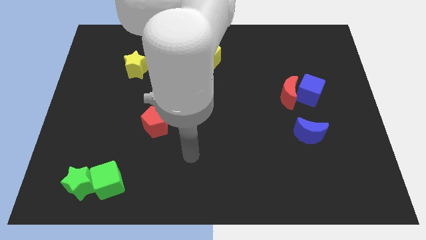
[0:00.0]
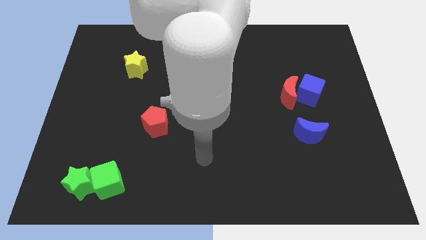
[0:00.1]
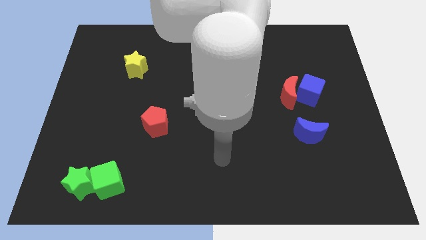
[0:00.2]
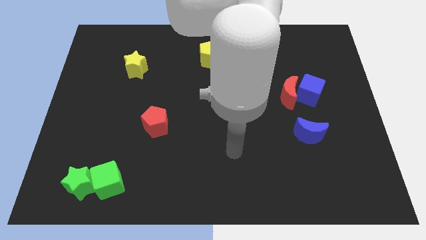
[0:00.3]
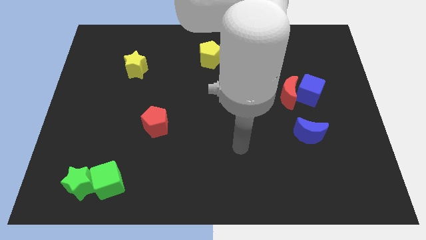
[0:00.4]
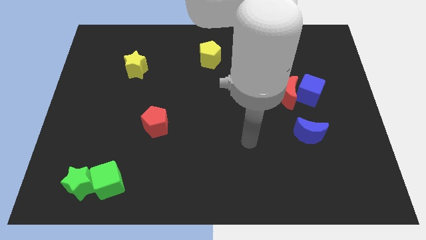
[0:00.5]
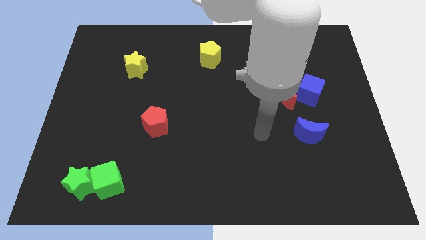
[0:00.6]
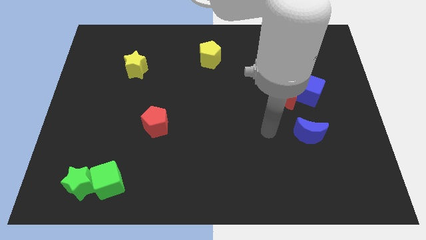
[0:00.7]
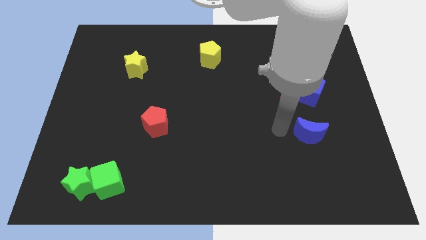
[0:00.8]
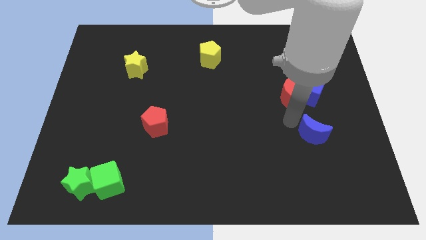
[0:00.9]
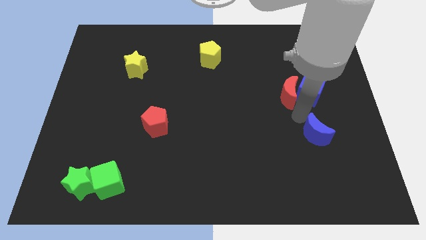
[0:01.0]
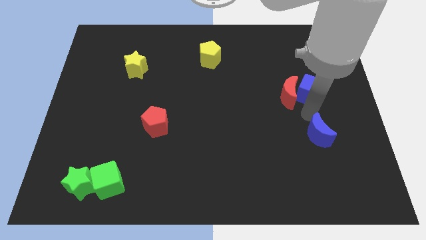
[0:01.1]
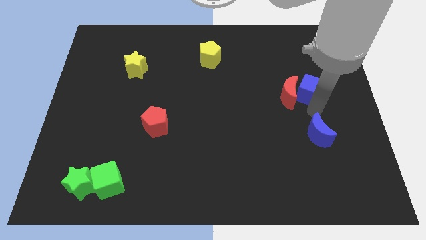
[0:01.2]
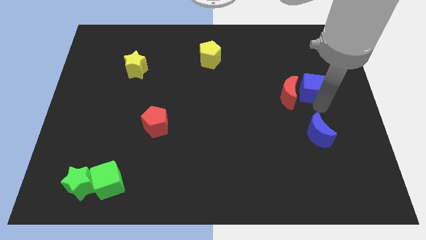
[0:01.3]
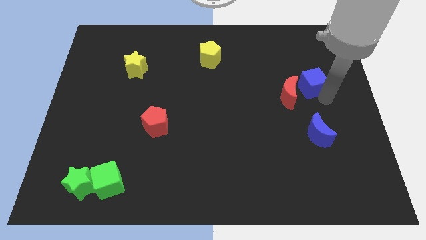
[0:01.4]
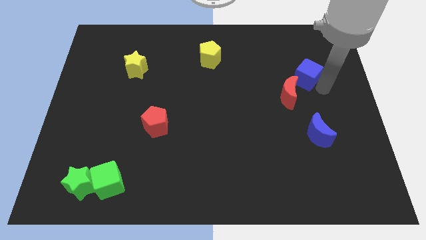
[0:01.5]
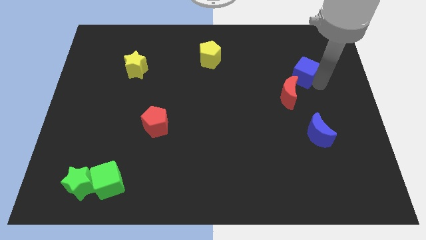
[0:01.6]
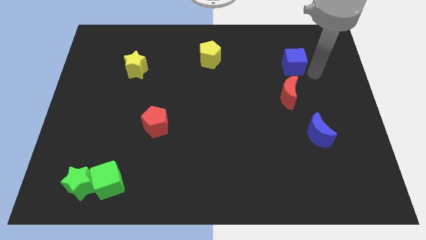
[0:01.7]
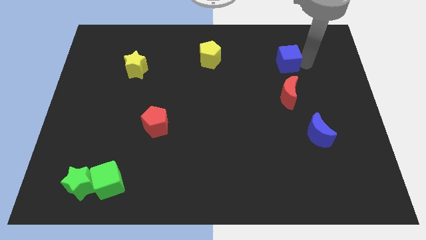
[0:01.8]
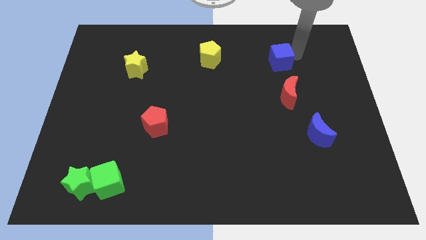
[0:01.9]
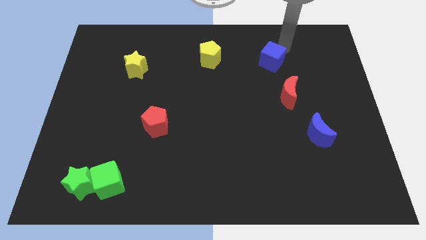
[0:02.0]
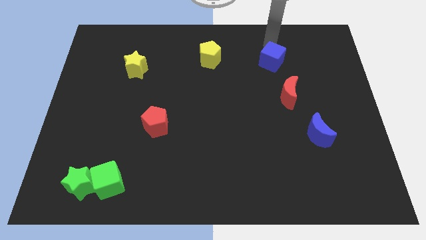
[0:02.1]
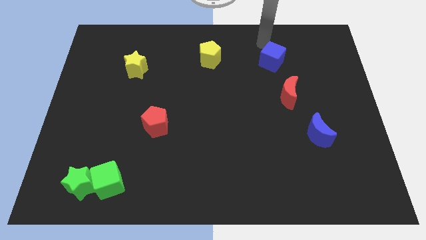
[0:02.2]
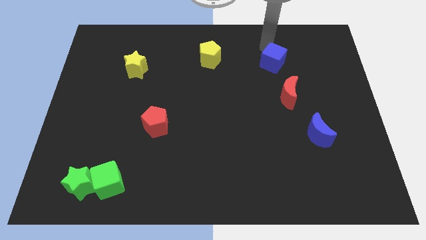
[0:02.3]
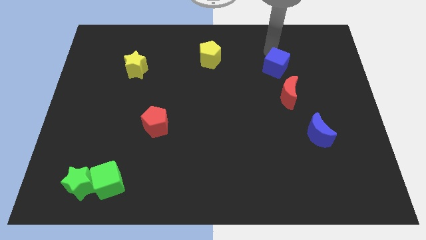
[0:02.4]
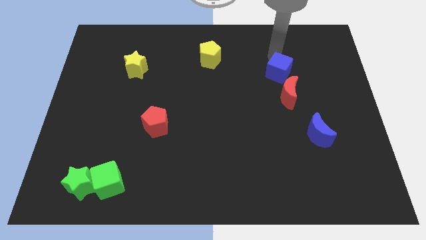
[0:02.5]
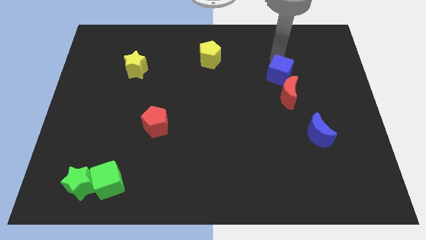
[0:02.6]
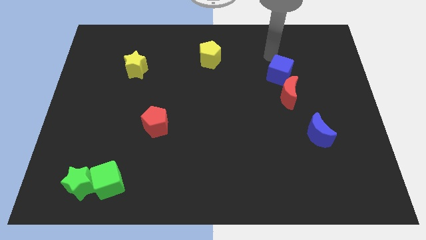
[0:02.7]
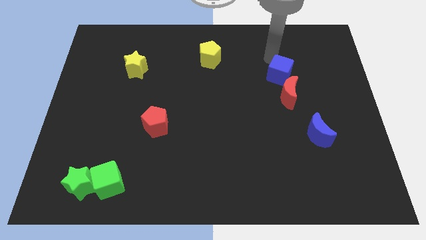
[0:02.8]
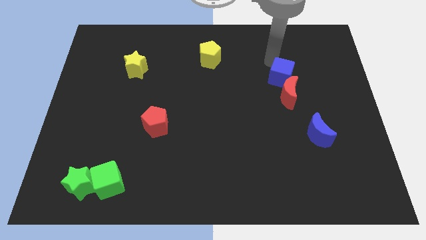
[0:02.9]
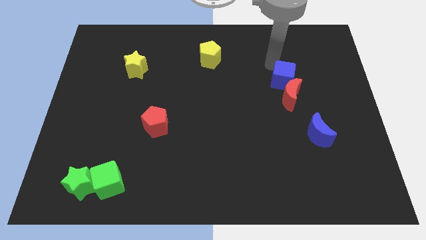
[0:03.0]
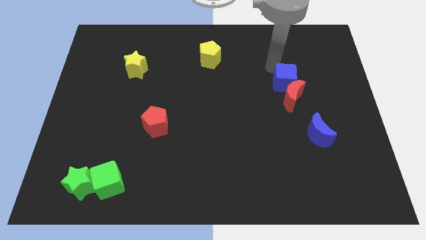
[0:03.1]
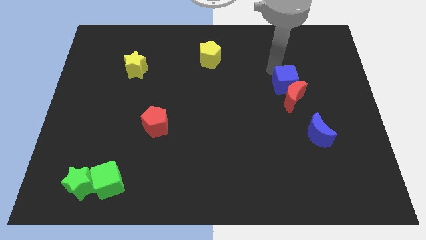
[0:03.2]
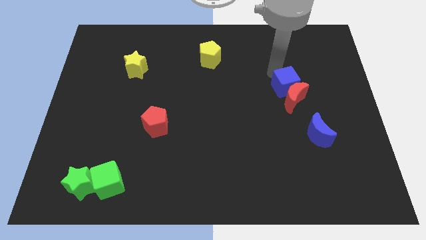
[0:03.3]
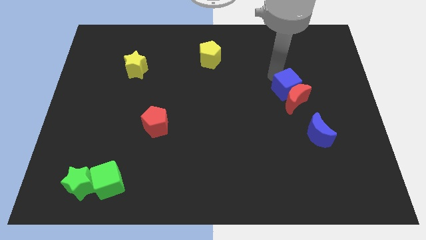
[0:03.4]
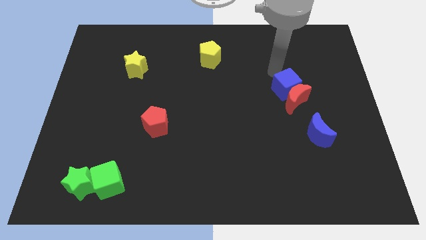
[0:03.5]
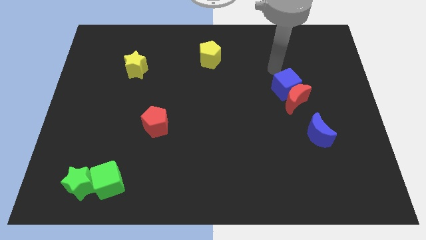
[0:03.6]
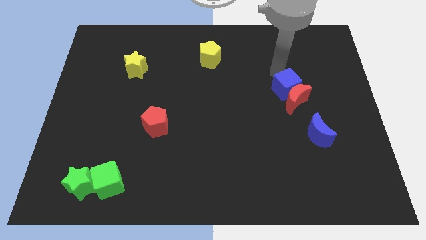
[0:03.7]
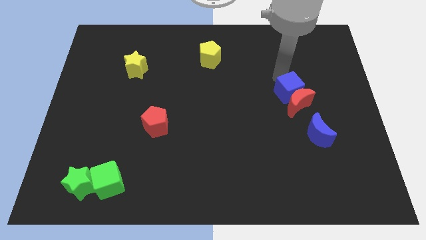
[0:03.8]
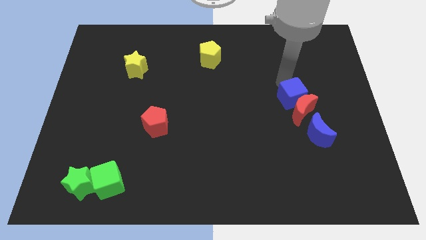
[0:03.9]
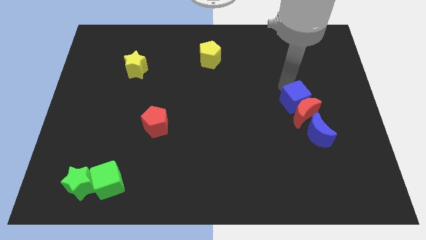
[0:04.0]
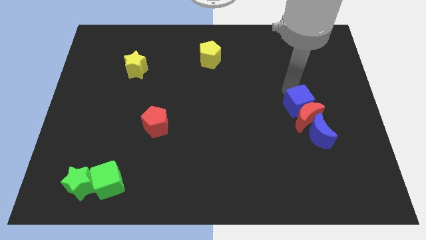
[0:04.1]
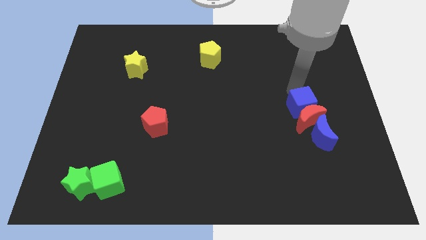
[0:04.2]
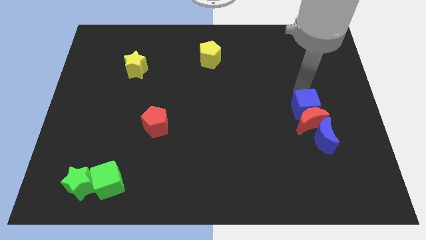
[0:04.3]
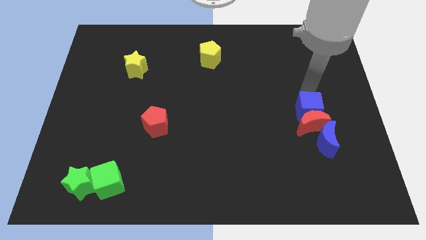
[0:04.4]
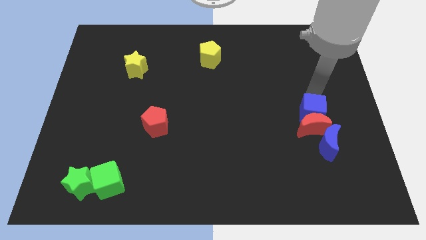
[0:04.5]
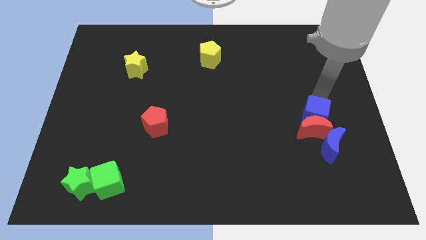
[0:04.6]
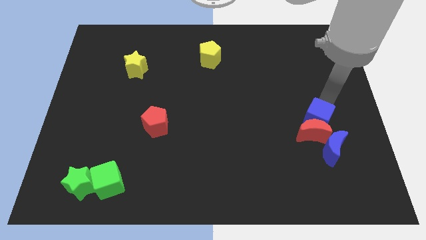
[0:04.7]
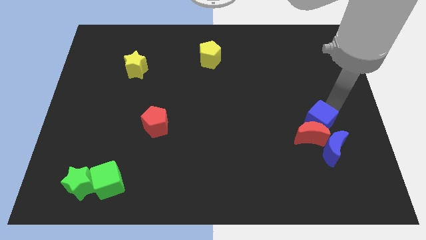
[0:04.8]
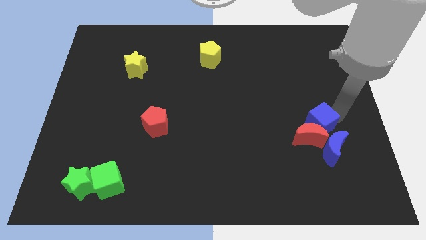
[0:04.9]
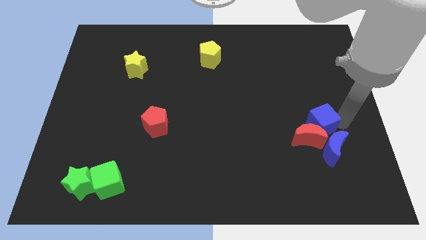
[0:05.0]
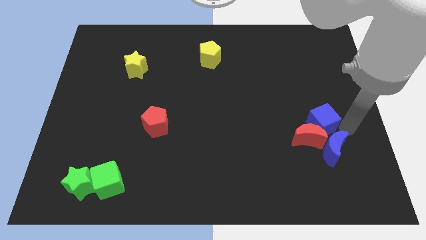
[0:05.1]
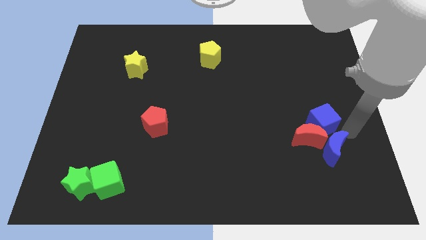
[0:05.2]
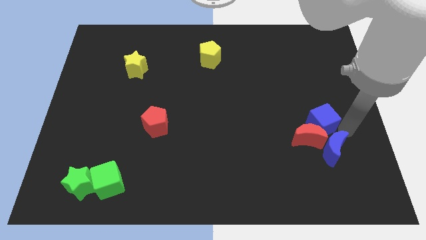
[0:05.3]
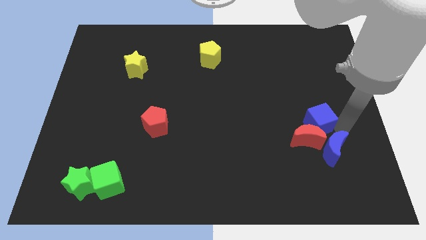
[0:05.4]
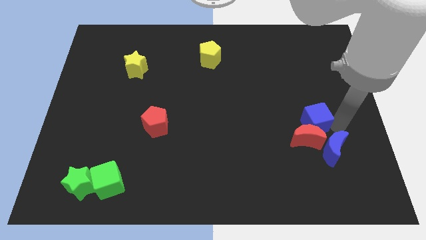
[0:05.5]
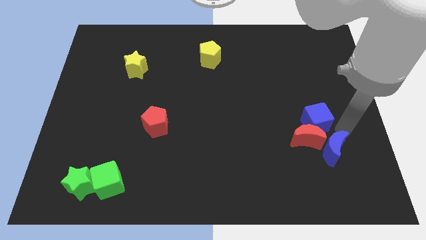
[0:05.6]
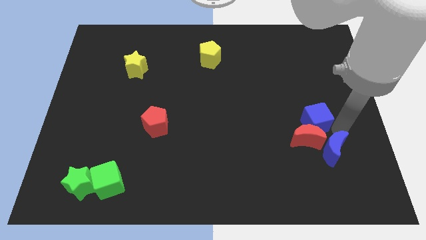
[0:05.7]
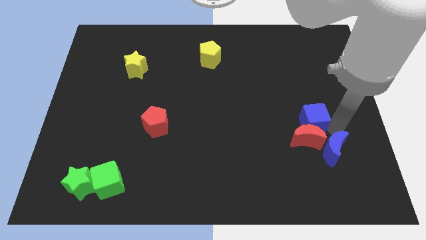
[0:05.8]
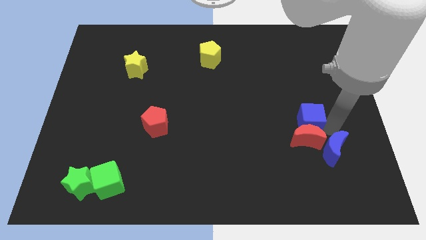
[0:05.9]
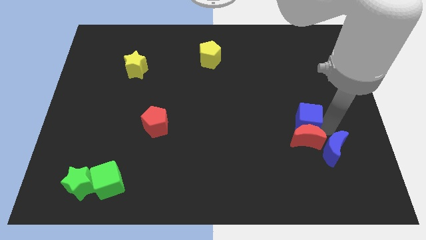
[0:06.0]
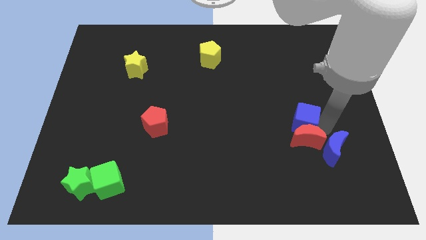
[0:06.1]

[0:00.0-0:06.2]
slide the blue cube a bit diagonally down and left

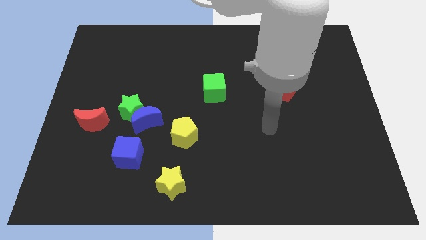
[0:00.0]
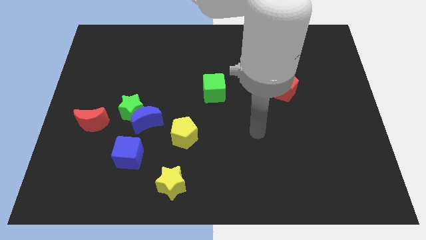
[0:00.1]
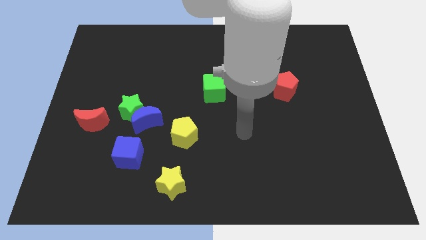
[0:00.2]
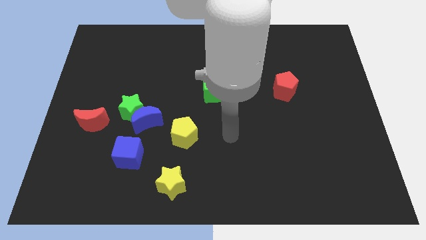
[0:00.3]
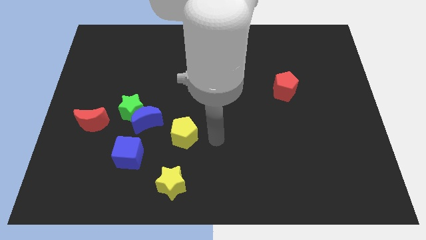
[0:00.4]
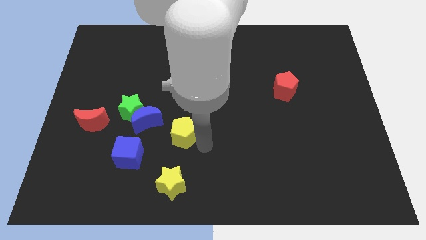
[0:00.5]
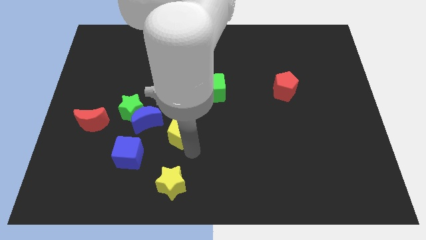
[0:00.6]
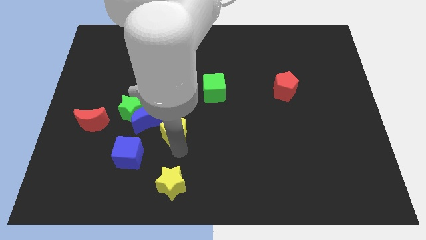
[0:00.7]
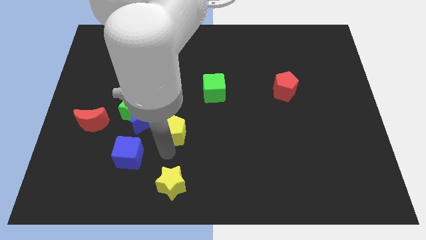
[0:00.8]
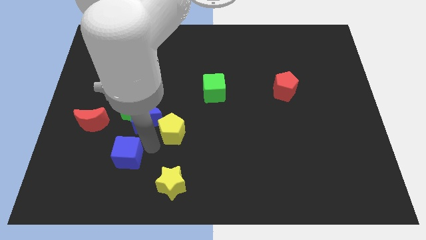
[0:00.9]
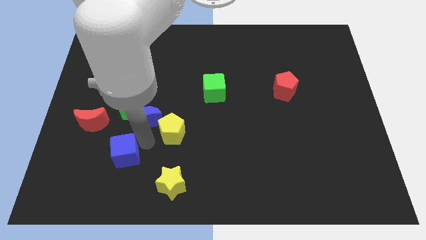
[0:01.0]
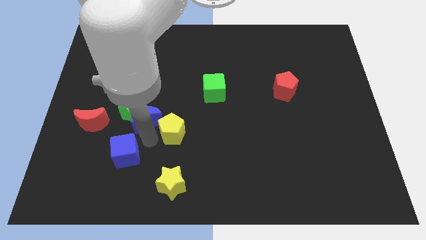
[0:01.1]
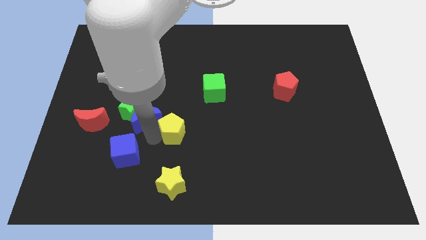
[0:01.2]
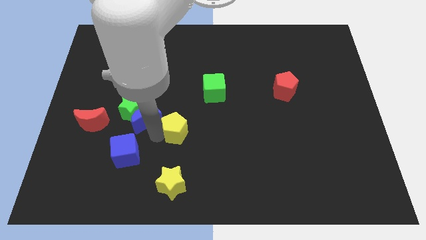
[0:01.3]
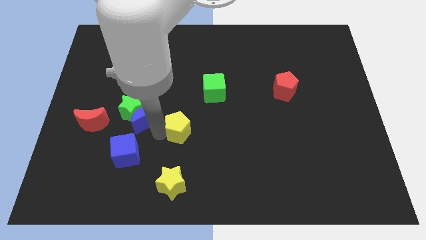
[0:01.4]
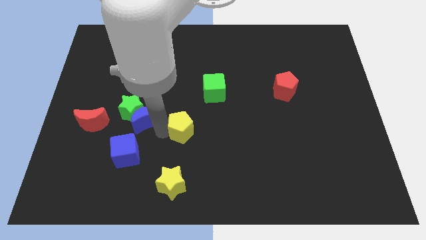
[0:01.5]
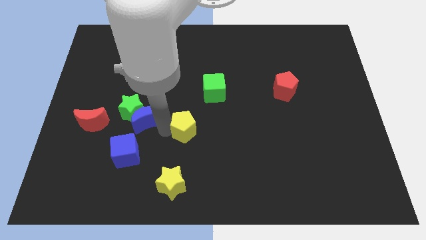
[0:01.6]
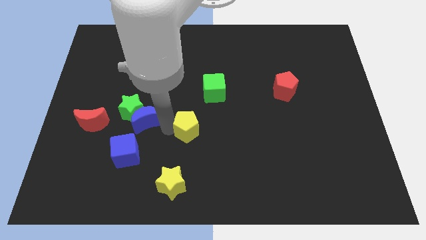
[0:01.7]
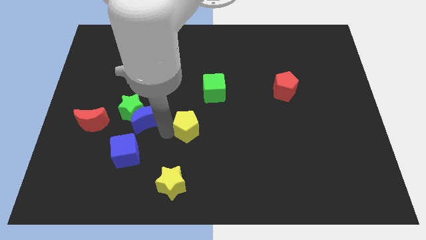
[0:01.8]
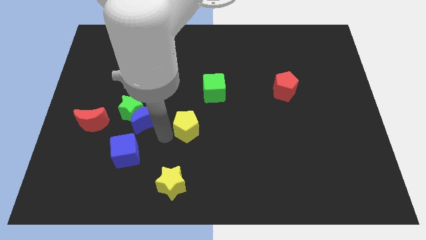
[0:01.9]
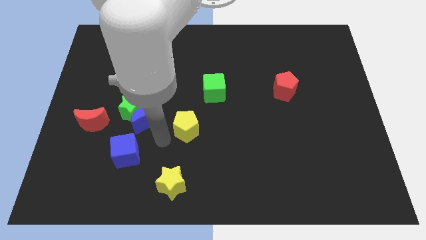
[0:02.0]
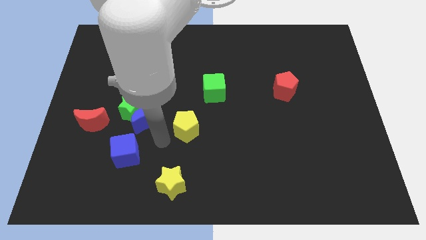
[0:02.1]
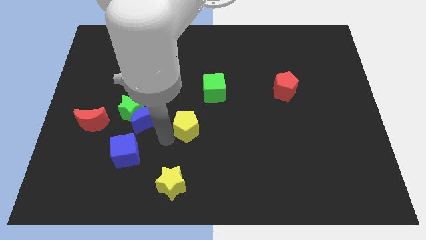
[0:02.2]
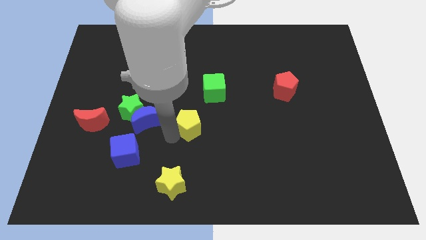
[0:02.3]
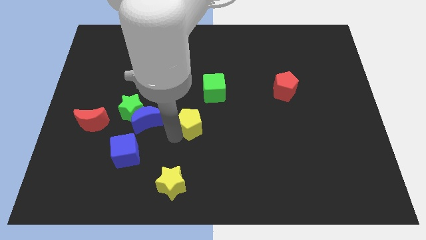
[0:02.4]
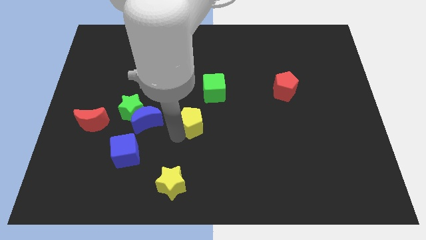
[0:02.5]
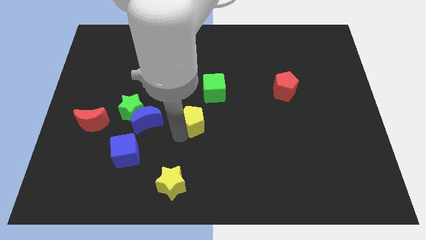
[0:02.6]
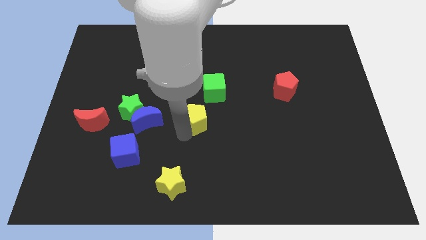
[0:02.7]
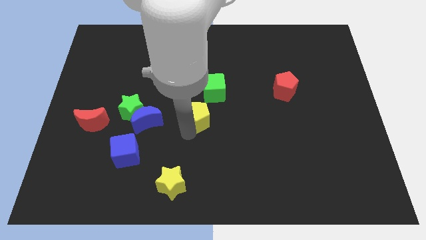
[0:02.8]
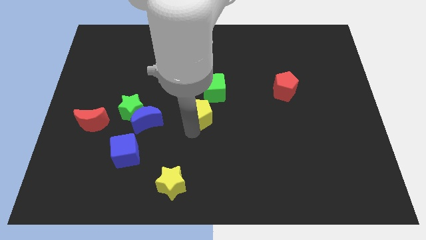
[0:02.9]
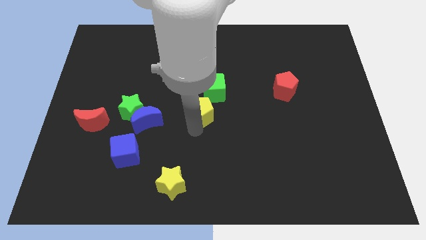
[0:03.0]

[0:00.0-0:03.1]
slightly slide the yellow pentagon diagonally up and right
